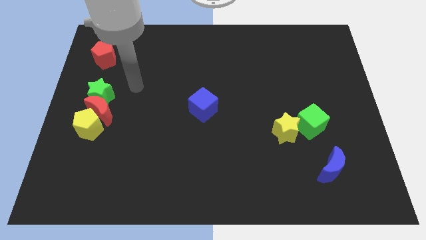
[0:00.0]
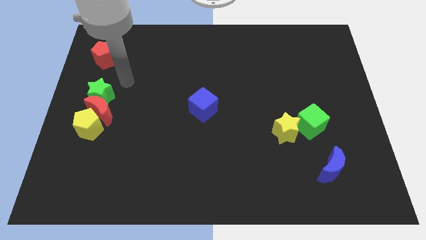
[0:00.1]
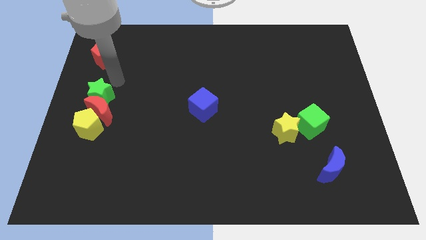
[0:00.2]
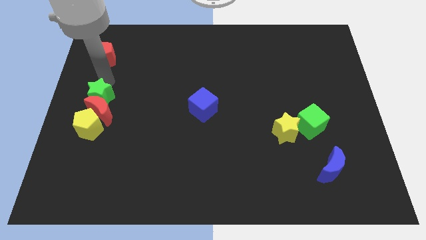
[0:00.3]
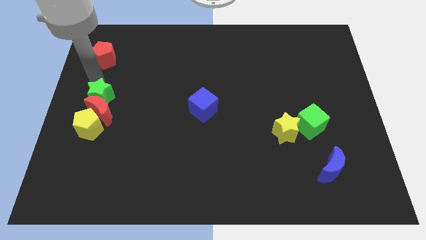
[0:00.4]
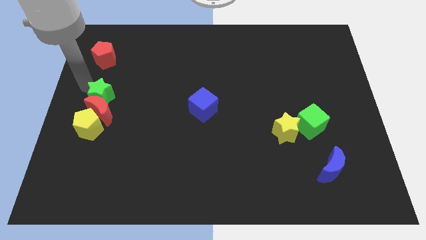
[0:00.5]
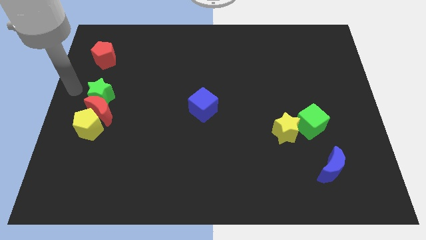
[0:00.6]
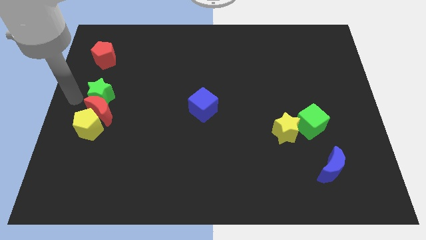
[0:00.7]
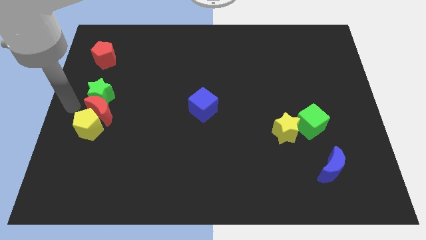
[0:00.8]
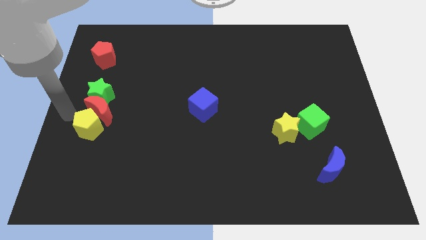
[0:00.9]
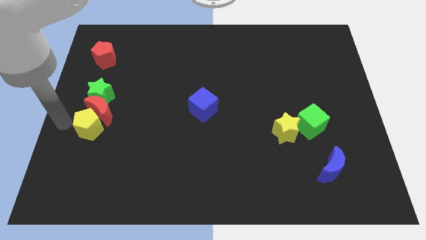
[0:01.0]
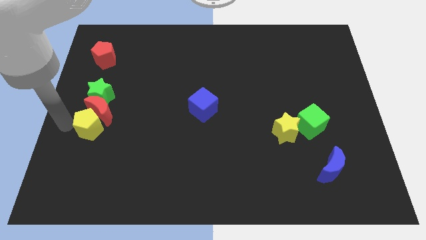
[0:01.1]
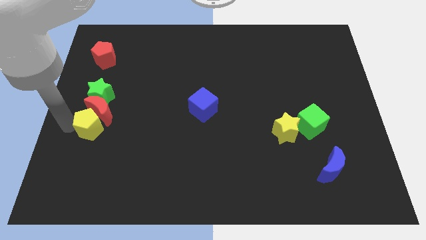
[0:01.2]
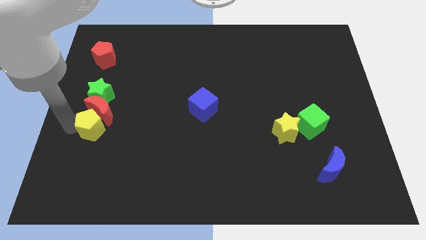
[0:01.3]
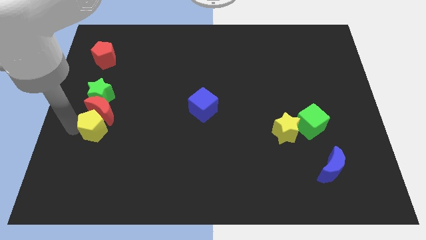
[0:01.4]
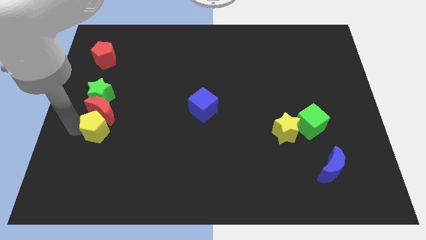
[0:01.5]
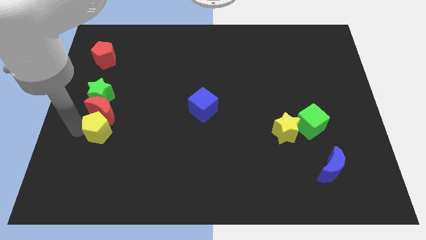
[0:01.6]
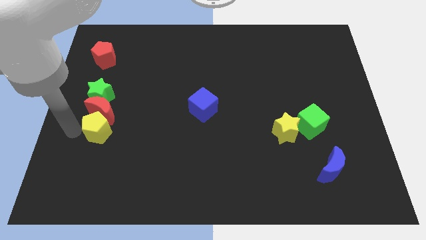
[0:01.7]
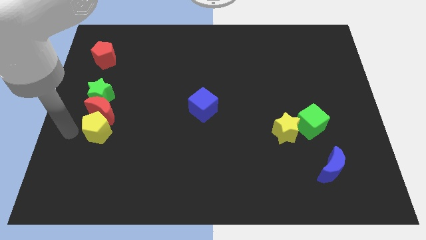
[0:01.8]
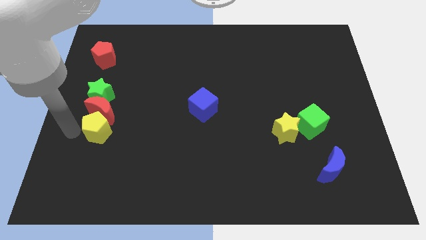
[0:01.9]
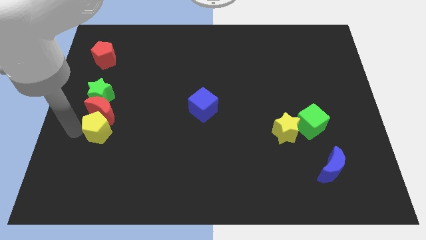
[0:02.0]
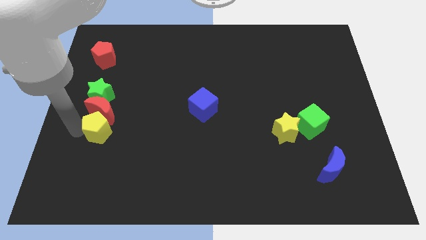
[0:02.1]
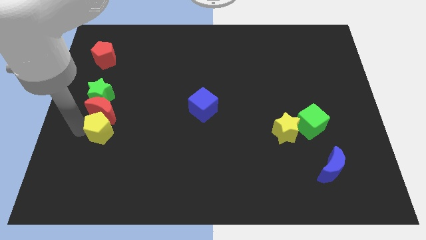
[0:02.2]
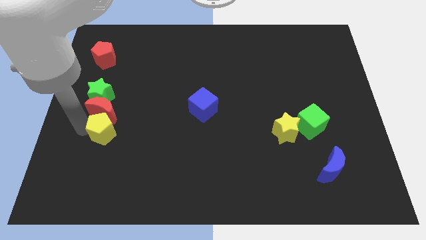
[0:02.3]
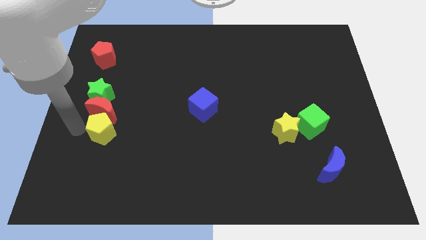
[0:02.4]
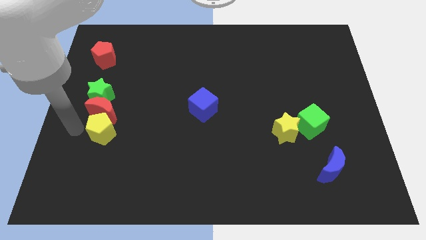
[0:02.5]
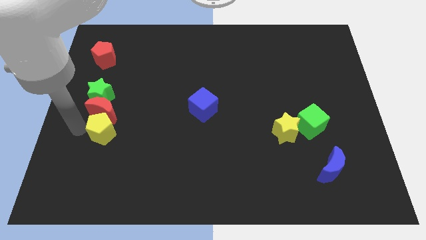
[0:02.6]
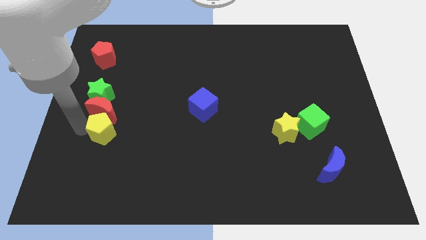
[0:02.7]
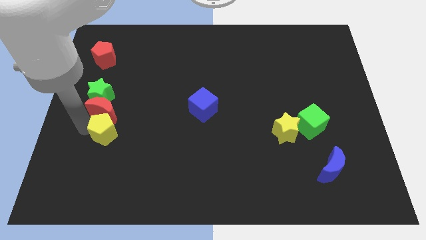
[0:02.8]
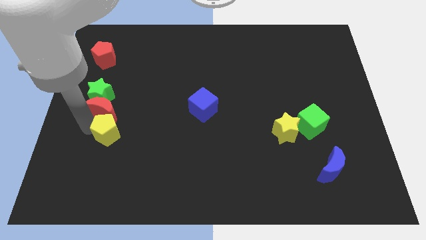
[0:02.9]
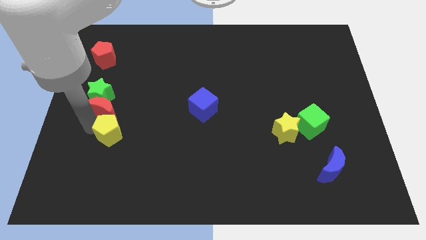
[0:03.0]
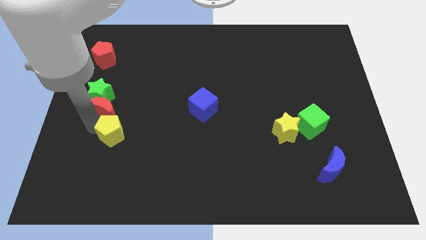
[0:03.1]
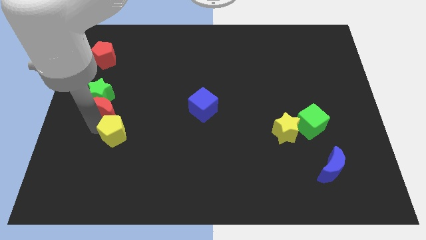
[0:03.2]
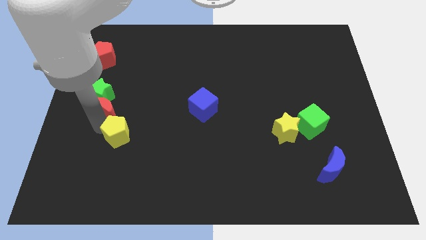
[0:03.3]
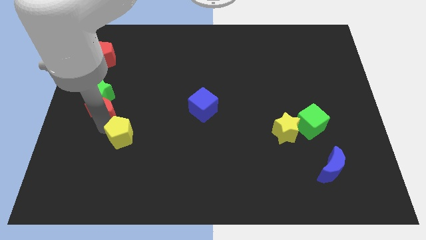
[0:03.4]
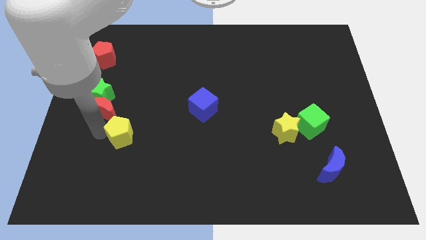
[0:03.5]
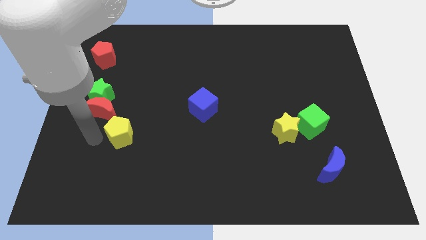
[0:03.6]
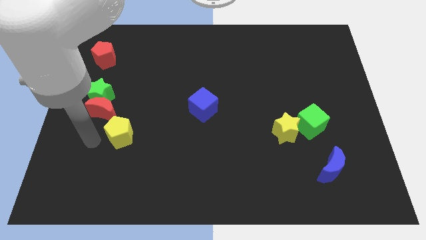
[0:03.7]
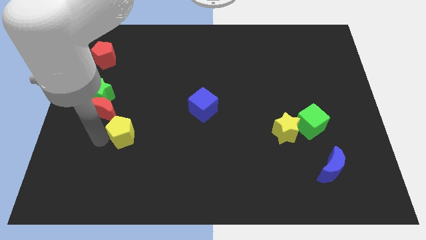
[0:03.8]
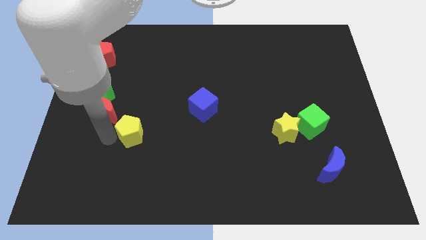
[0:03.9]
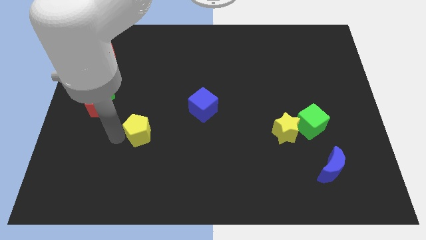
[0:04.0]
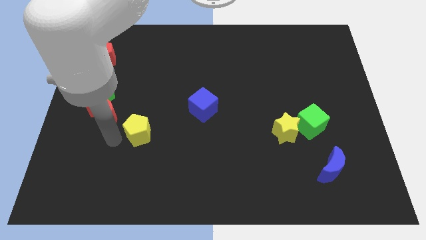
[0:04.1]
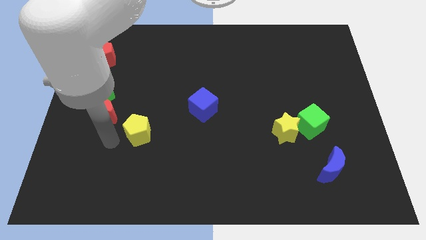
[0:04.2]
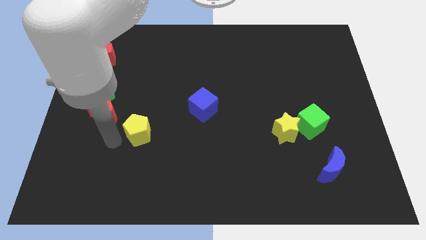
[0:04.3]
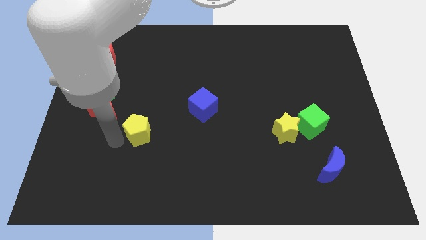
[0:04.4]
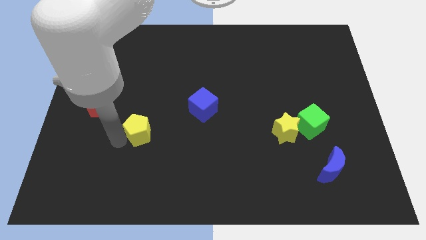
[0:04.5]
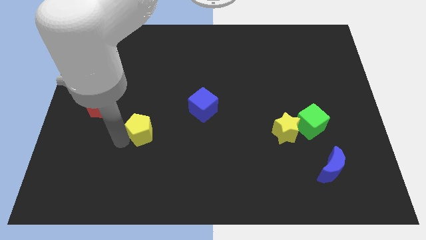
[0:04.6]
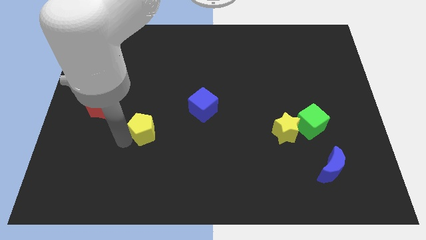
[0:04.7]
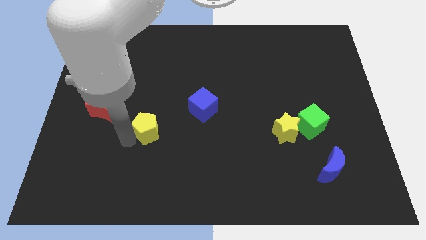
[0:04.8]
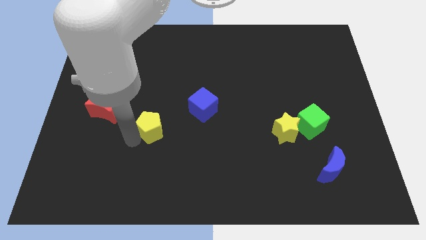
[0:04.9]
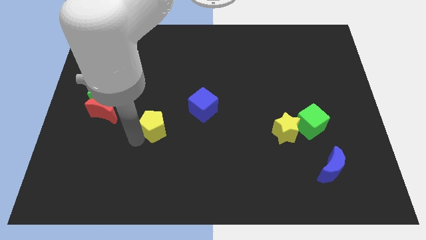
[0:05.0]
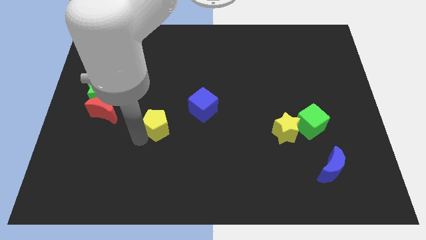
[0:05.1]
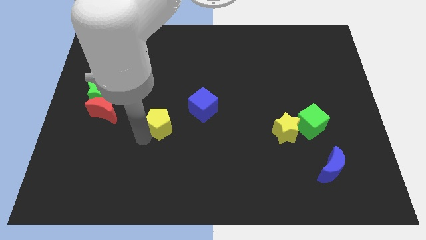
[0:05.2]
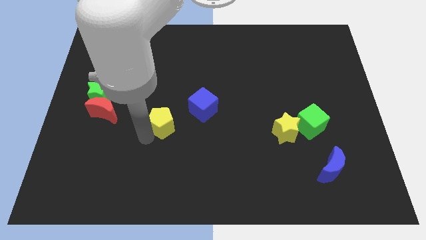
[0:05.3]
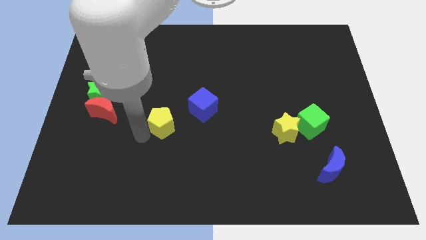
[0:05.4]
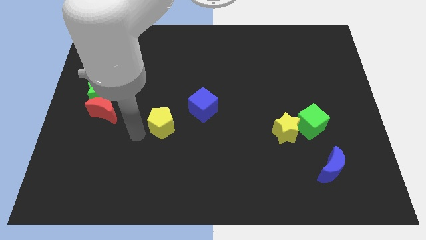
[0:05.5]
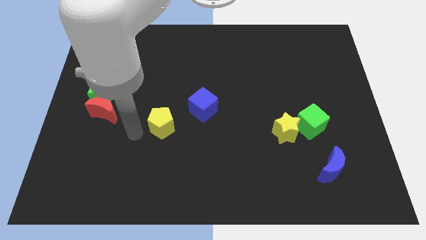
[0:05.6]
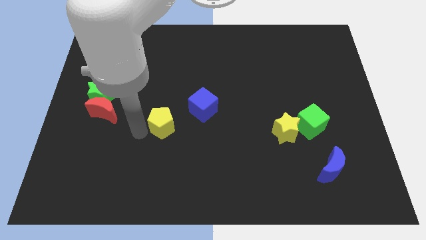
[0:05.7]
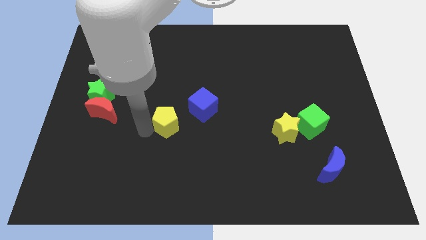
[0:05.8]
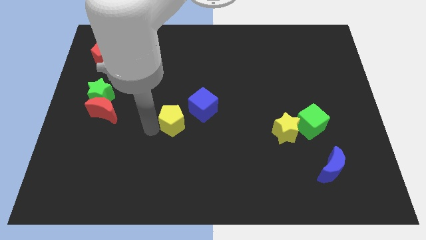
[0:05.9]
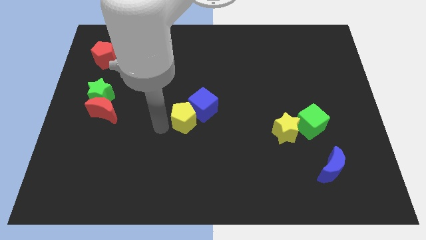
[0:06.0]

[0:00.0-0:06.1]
slide the yellow pentagon towards the blue cube

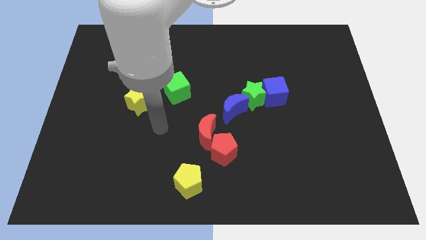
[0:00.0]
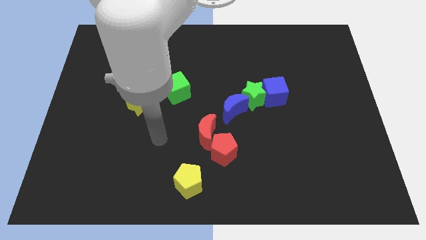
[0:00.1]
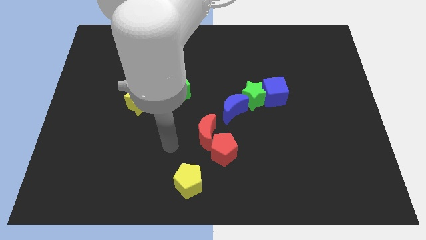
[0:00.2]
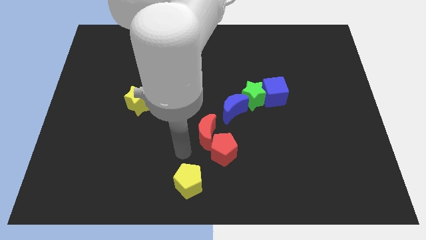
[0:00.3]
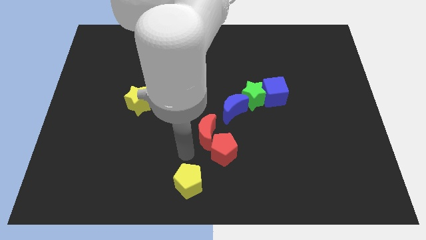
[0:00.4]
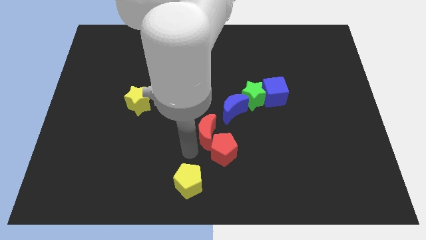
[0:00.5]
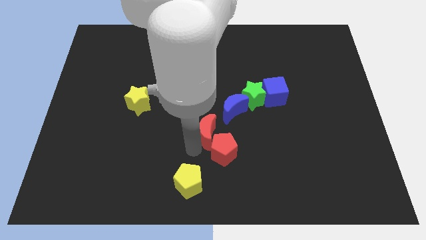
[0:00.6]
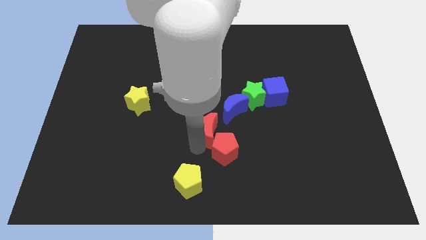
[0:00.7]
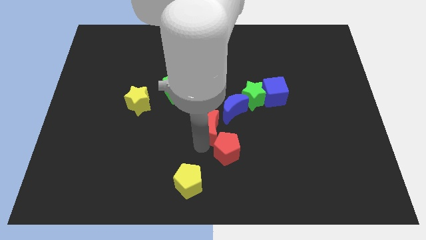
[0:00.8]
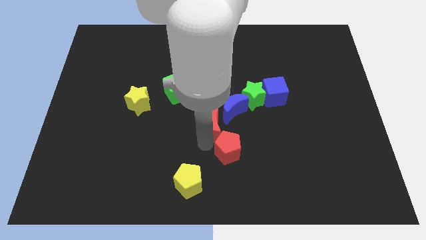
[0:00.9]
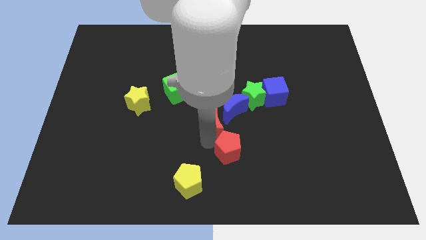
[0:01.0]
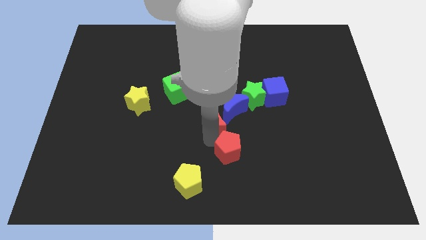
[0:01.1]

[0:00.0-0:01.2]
push the red moon next to the blue moon
